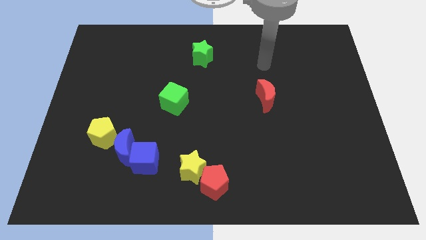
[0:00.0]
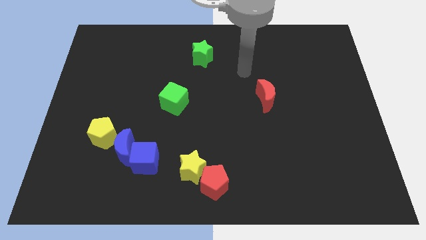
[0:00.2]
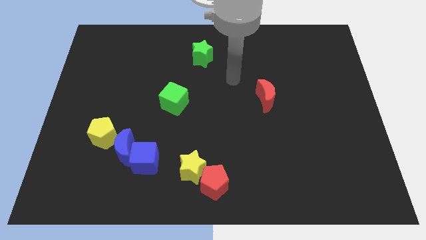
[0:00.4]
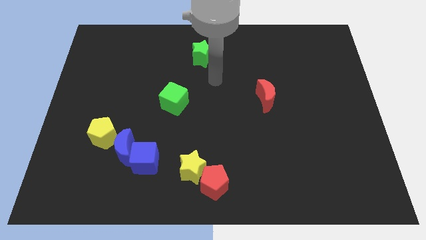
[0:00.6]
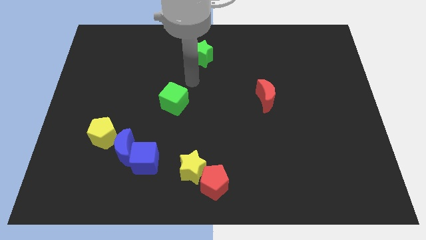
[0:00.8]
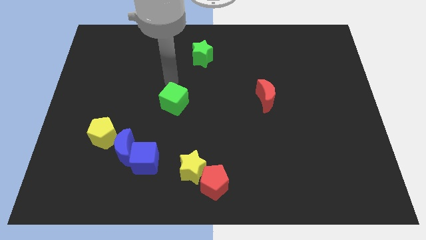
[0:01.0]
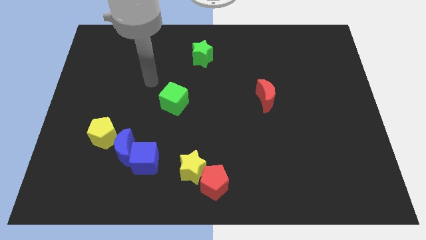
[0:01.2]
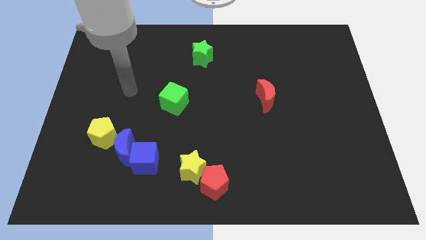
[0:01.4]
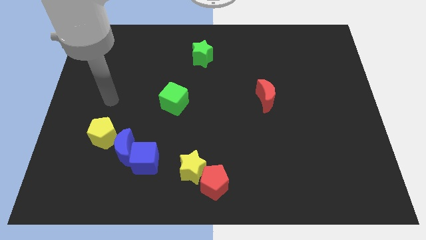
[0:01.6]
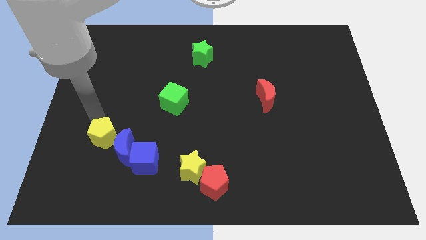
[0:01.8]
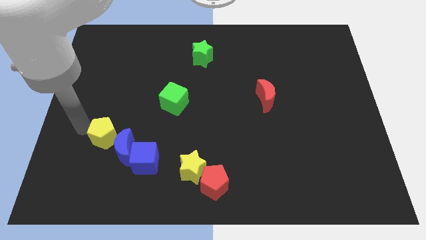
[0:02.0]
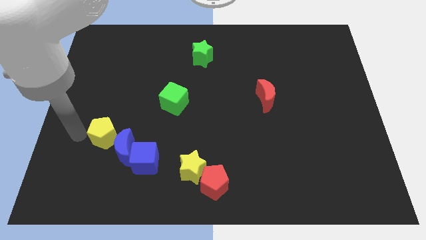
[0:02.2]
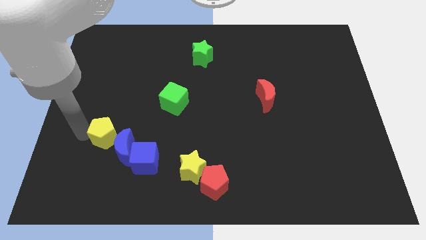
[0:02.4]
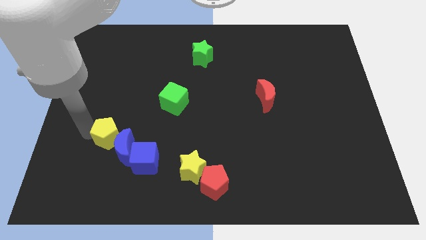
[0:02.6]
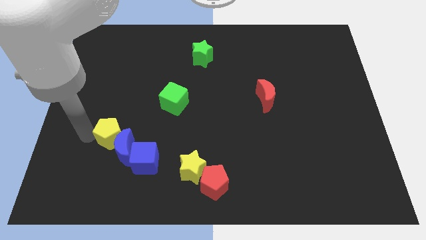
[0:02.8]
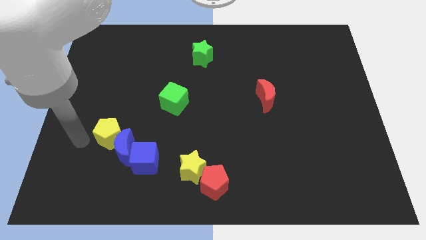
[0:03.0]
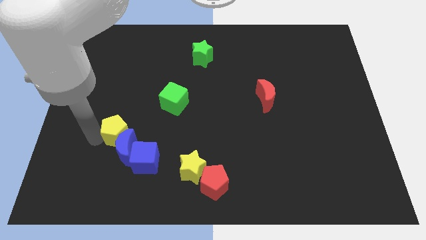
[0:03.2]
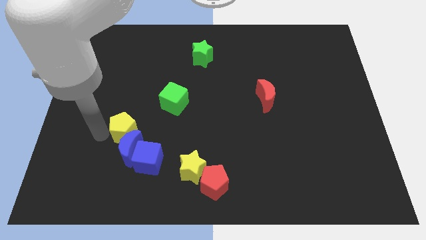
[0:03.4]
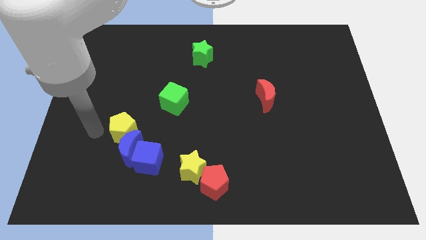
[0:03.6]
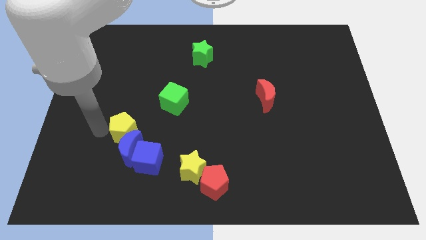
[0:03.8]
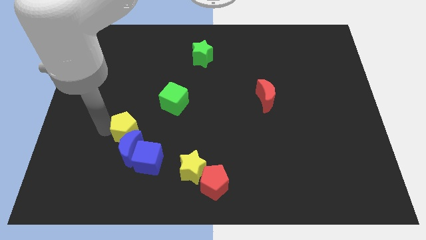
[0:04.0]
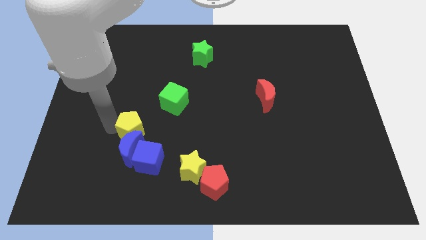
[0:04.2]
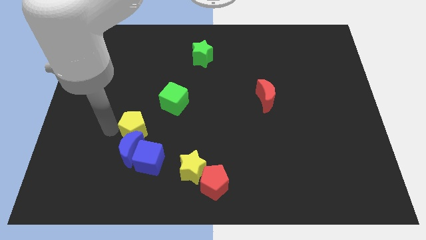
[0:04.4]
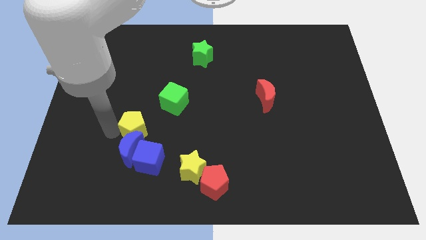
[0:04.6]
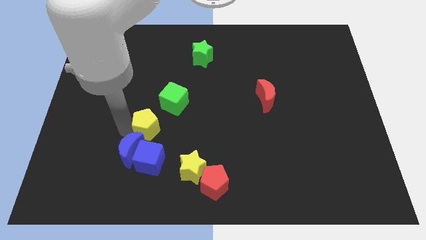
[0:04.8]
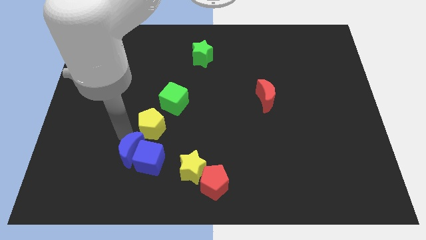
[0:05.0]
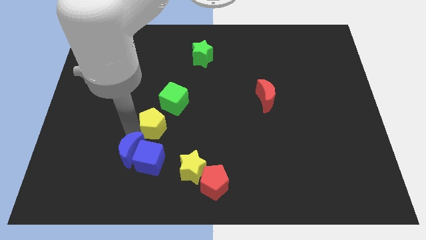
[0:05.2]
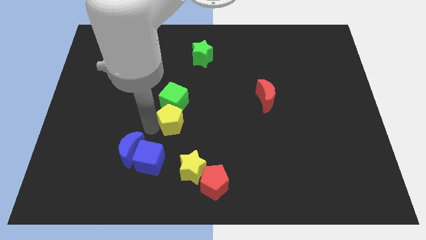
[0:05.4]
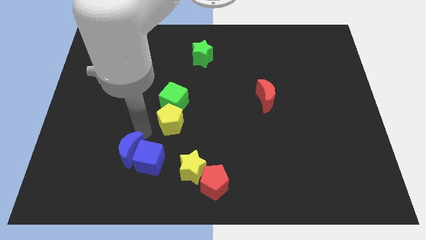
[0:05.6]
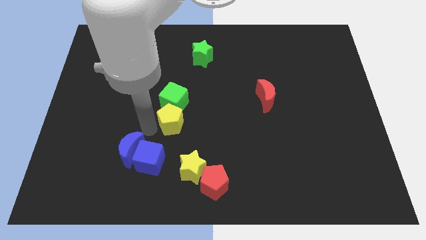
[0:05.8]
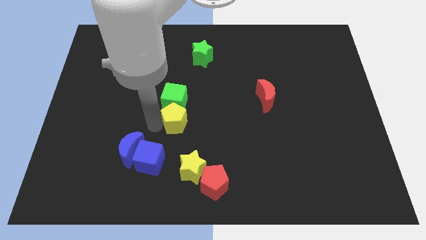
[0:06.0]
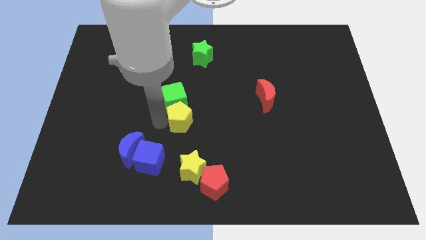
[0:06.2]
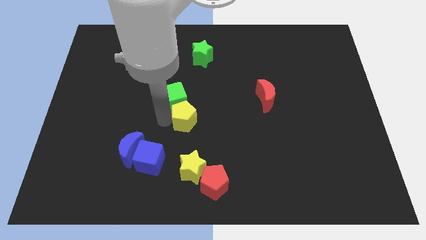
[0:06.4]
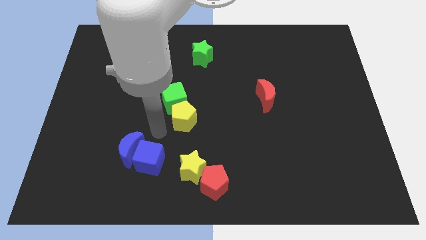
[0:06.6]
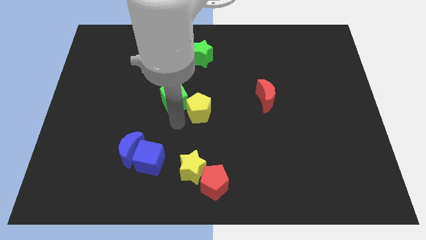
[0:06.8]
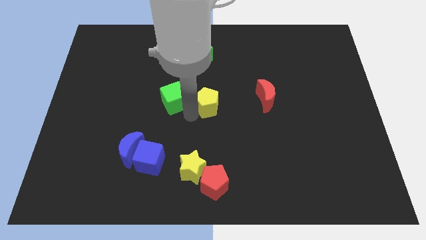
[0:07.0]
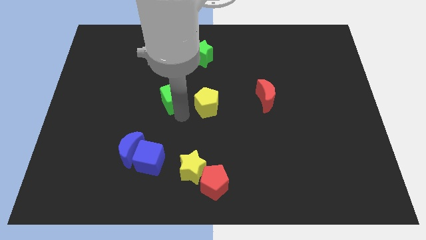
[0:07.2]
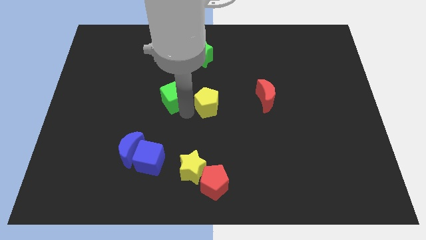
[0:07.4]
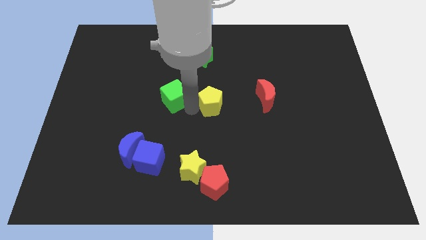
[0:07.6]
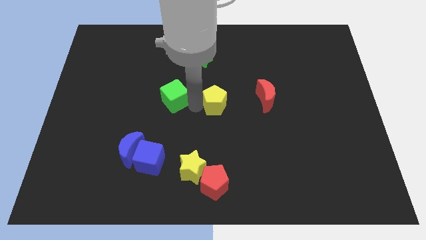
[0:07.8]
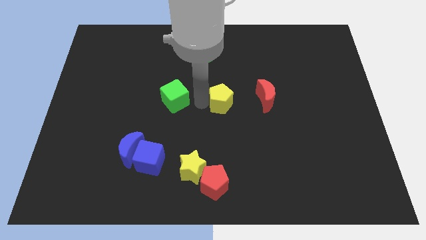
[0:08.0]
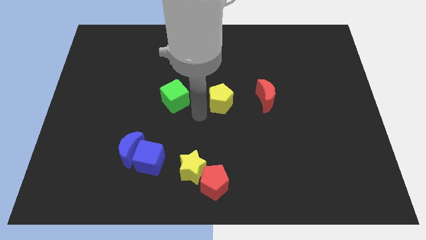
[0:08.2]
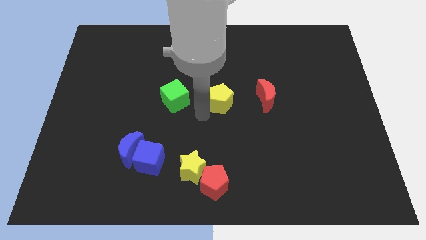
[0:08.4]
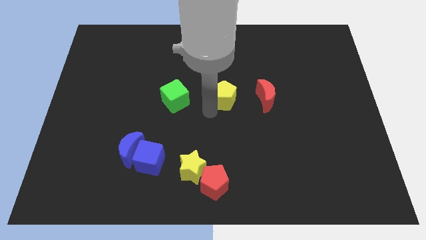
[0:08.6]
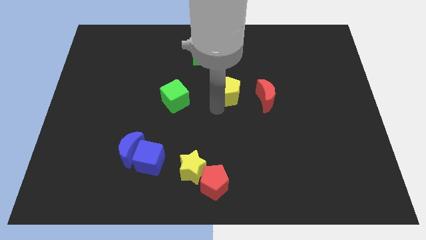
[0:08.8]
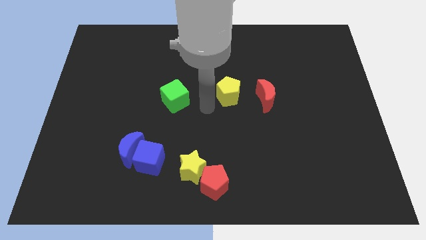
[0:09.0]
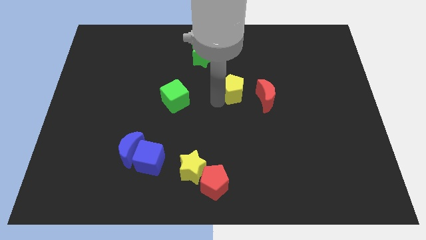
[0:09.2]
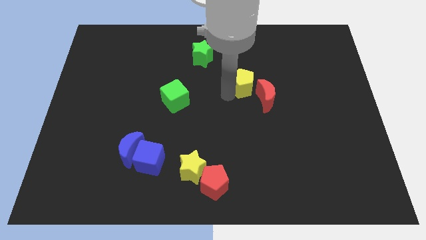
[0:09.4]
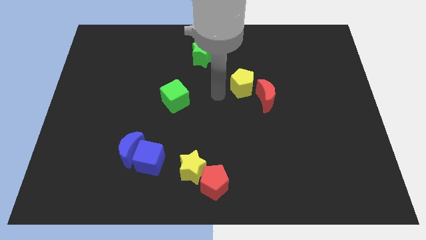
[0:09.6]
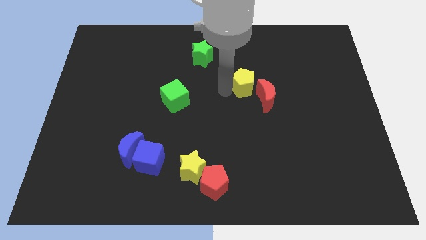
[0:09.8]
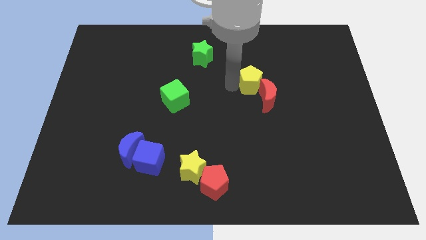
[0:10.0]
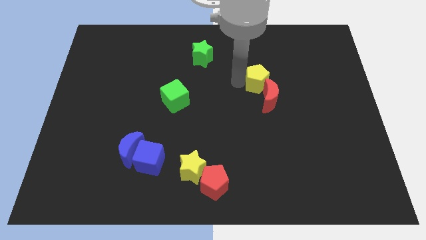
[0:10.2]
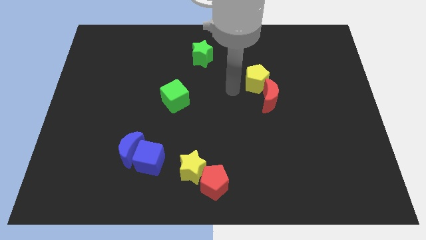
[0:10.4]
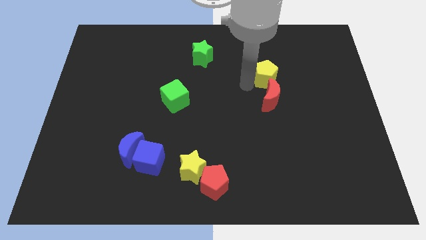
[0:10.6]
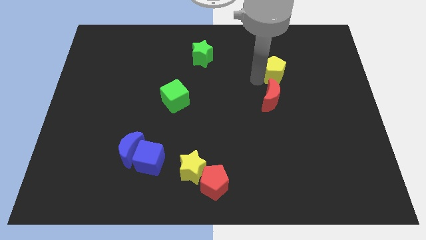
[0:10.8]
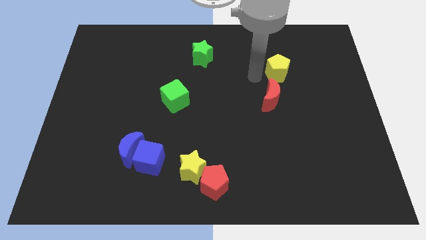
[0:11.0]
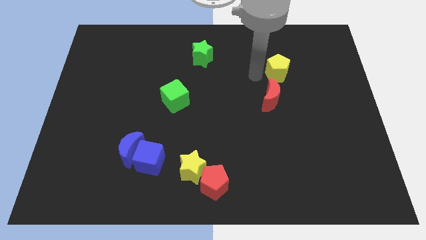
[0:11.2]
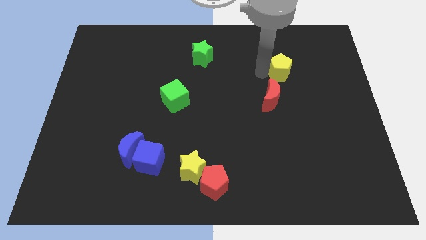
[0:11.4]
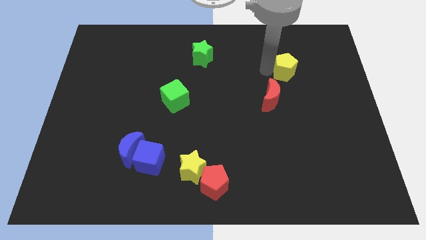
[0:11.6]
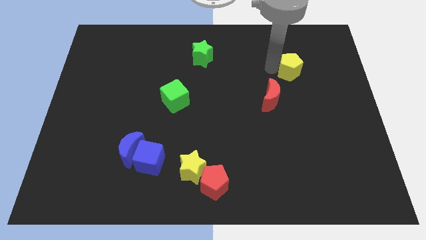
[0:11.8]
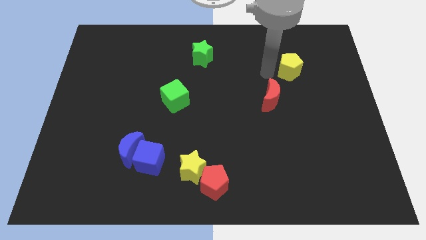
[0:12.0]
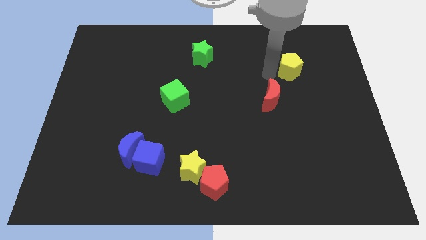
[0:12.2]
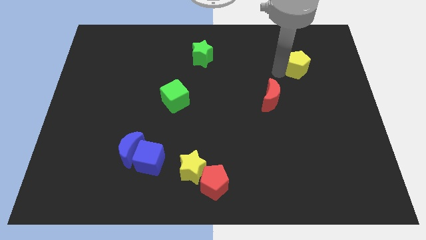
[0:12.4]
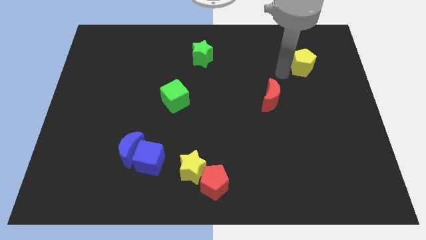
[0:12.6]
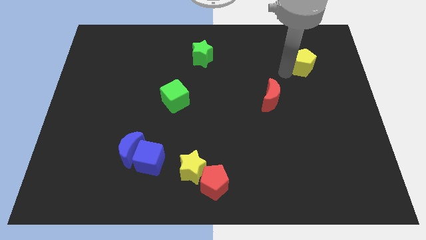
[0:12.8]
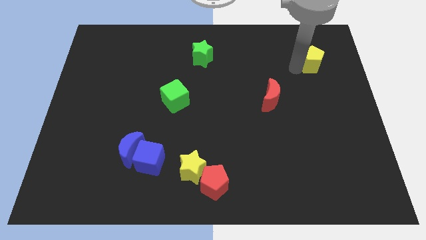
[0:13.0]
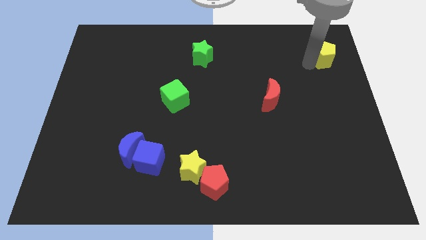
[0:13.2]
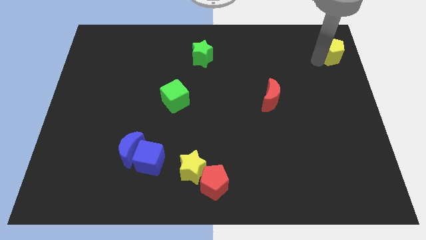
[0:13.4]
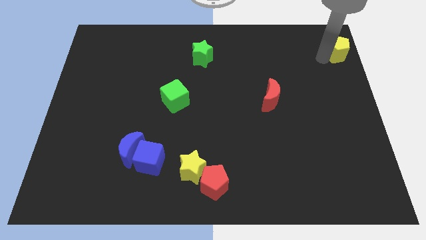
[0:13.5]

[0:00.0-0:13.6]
put the yellow pentagon to the top right corner
